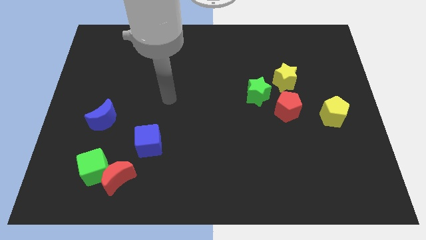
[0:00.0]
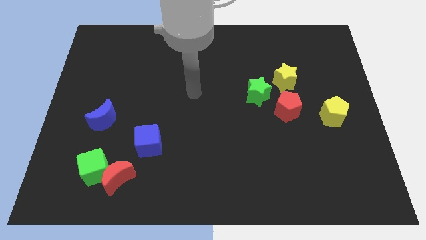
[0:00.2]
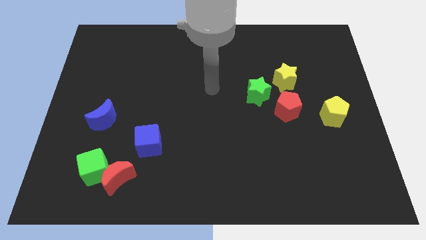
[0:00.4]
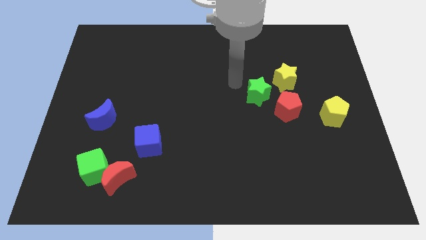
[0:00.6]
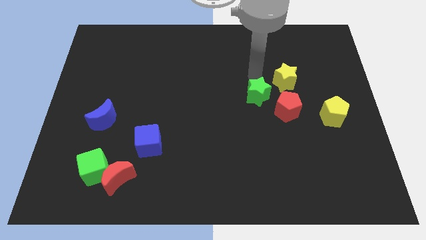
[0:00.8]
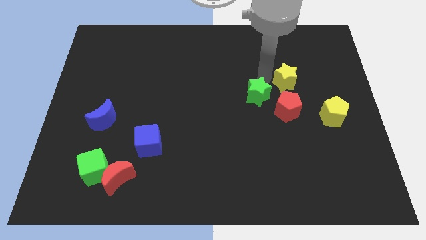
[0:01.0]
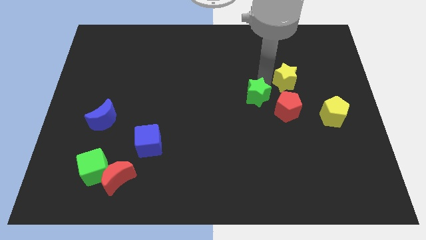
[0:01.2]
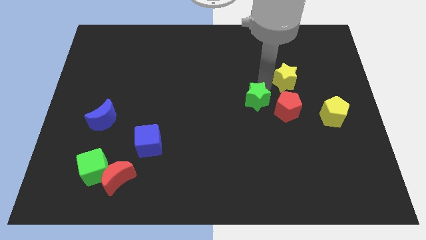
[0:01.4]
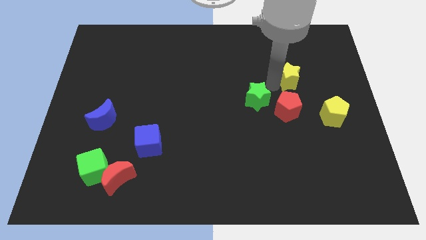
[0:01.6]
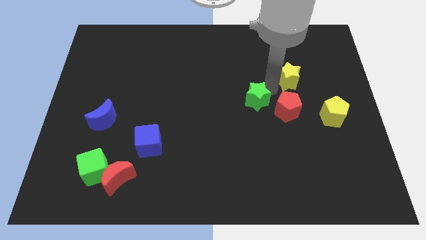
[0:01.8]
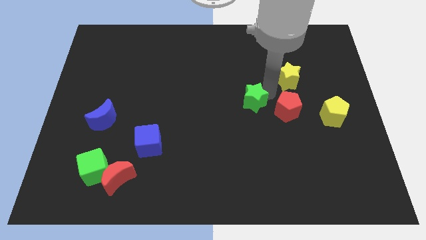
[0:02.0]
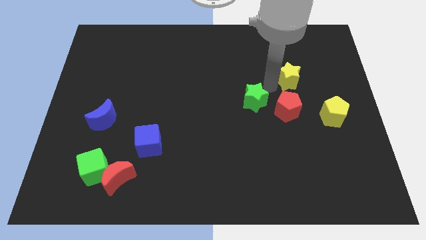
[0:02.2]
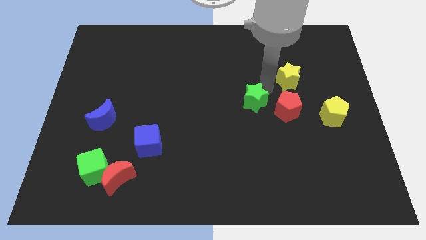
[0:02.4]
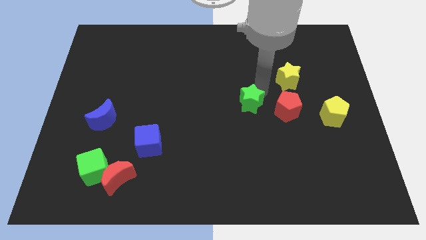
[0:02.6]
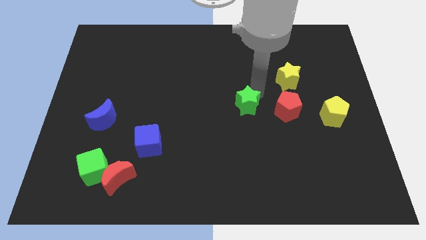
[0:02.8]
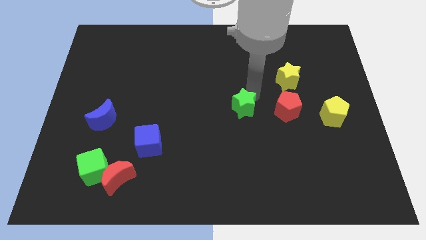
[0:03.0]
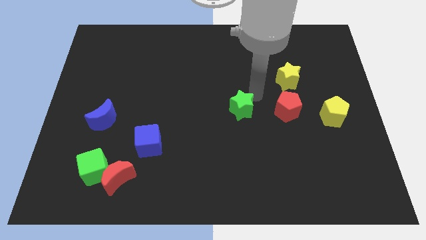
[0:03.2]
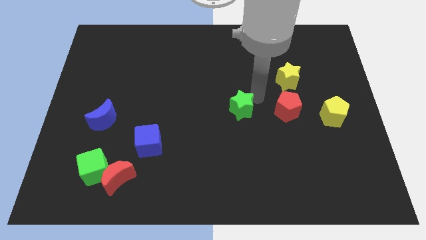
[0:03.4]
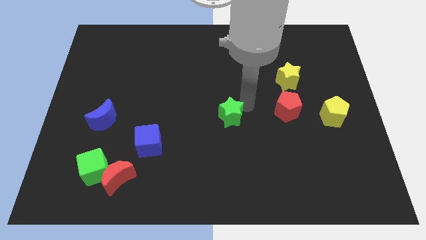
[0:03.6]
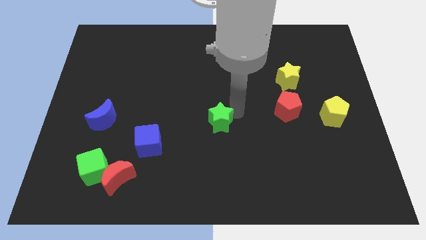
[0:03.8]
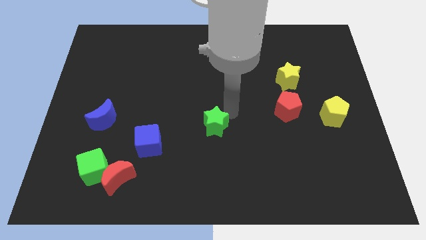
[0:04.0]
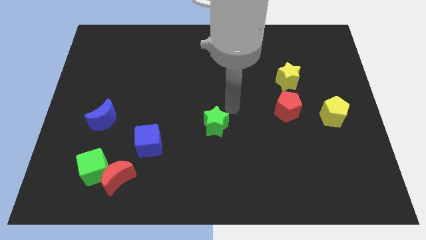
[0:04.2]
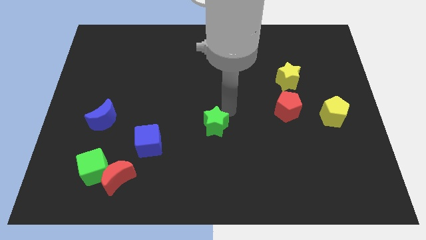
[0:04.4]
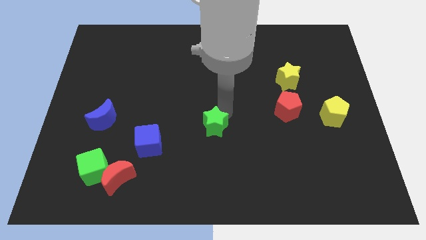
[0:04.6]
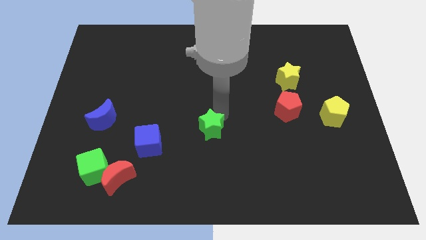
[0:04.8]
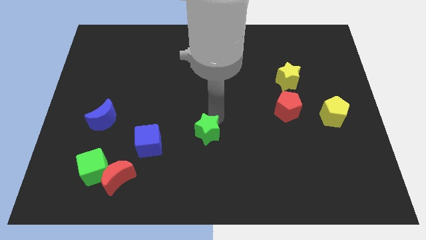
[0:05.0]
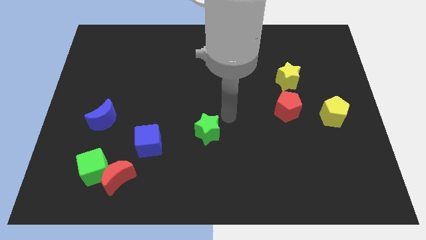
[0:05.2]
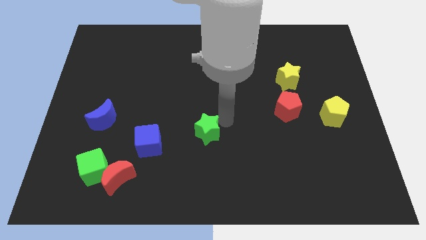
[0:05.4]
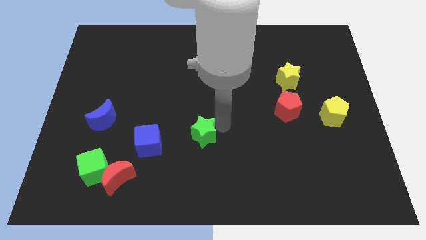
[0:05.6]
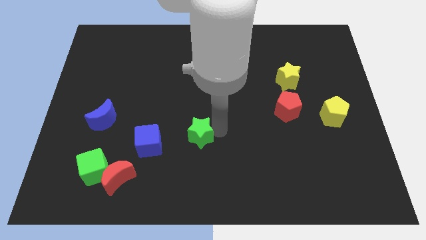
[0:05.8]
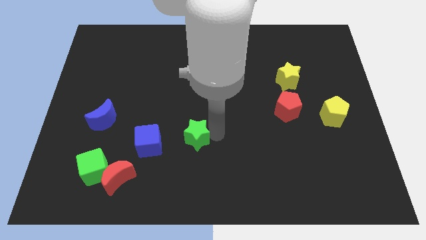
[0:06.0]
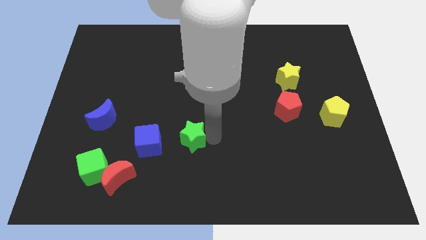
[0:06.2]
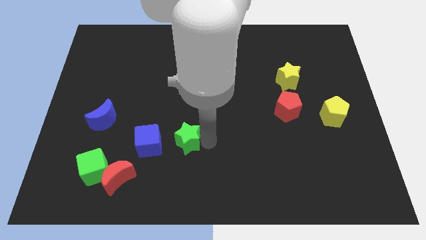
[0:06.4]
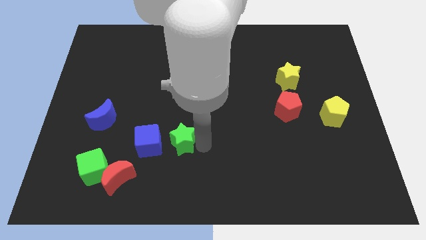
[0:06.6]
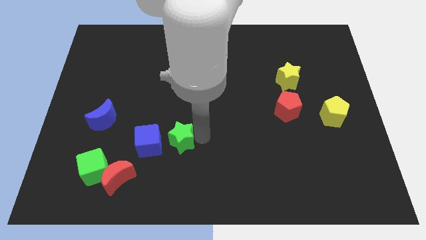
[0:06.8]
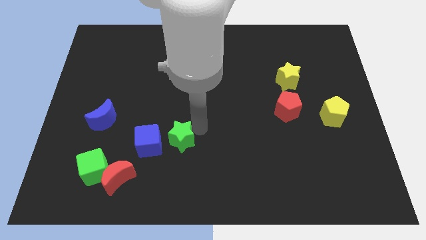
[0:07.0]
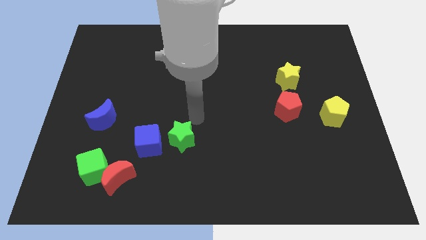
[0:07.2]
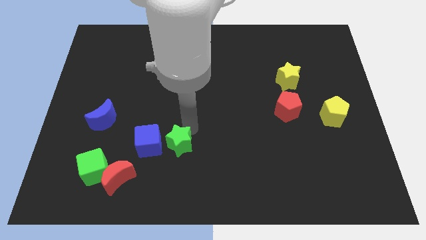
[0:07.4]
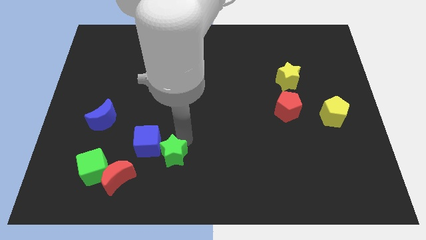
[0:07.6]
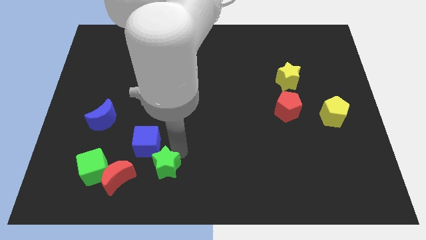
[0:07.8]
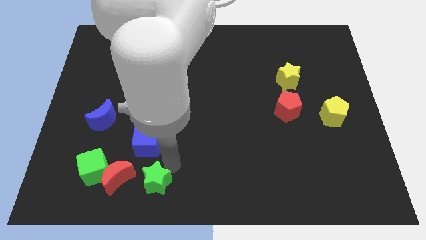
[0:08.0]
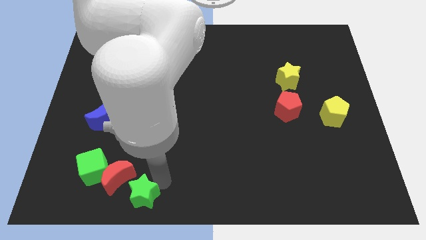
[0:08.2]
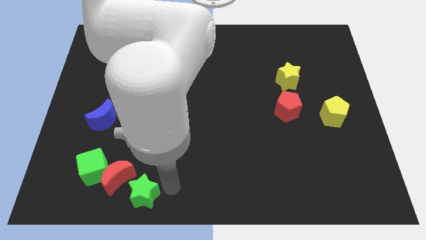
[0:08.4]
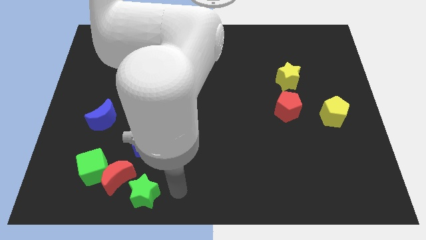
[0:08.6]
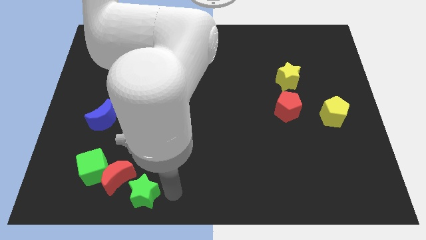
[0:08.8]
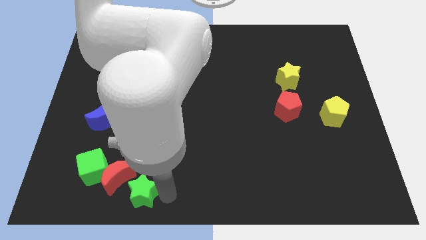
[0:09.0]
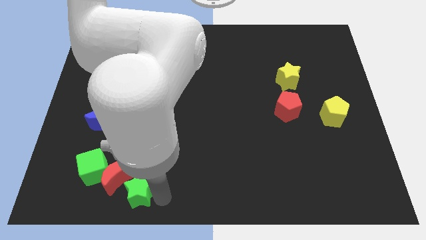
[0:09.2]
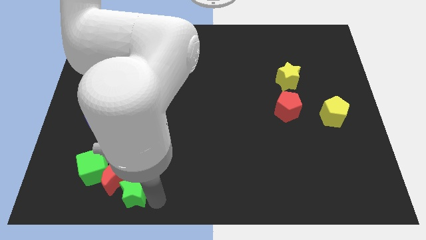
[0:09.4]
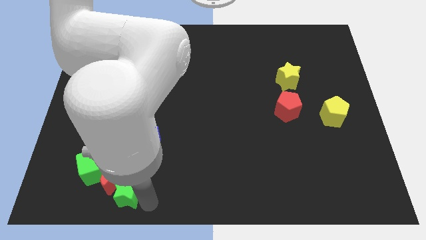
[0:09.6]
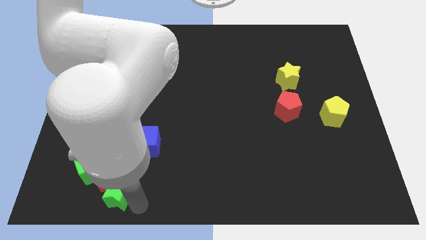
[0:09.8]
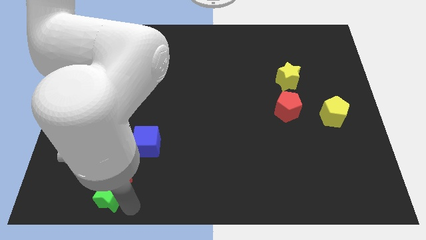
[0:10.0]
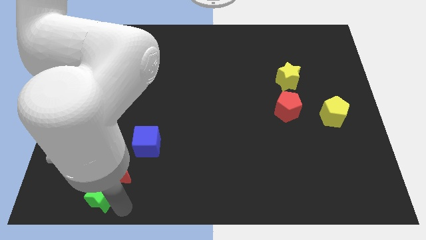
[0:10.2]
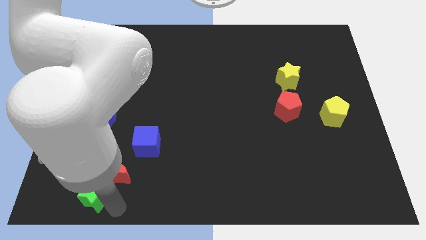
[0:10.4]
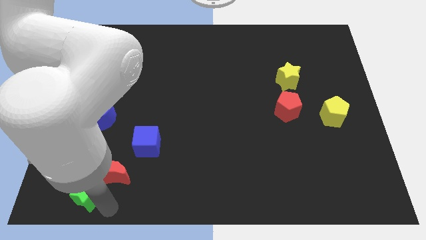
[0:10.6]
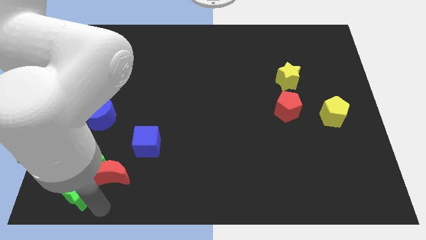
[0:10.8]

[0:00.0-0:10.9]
push the green star to the lower left corner
